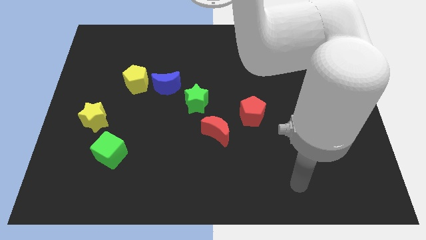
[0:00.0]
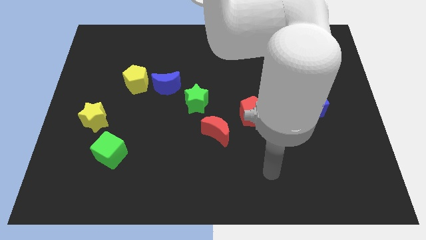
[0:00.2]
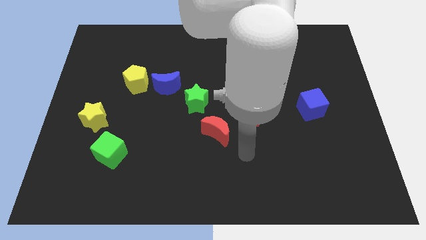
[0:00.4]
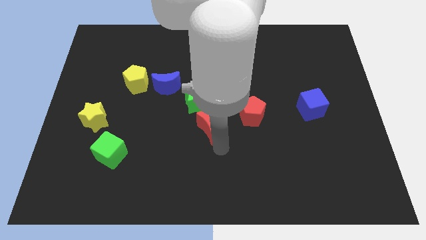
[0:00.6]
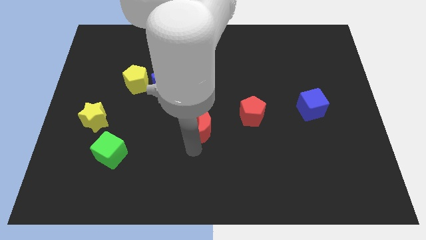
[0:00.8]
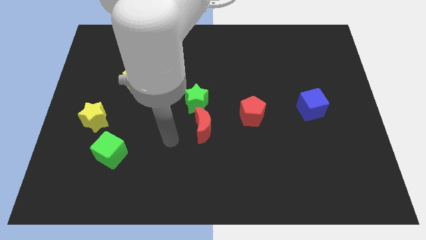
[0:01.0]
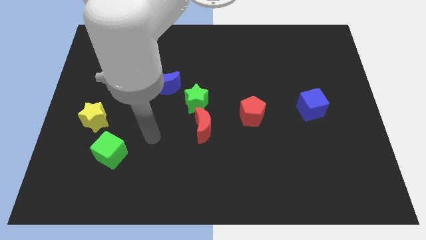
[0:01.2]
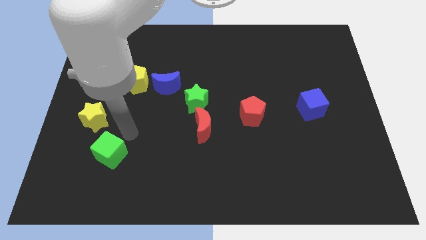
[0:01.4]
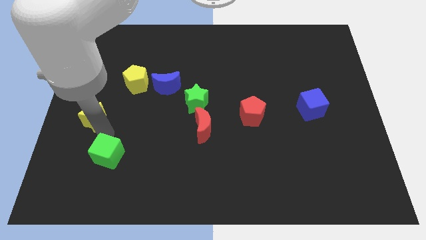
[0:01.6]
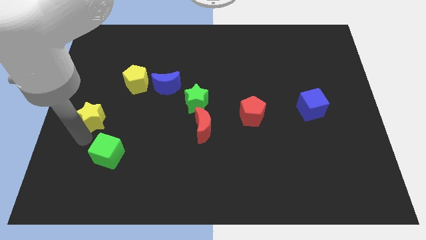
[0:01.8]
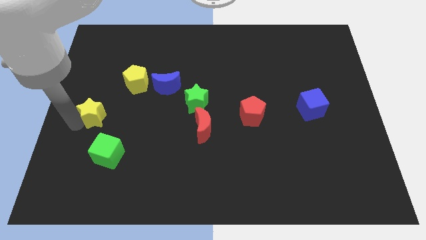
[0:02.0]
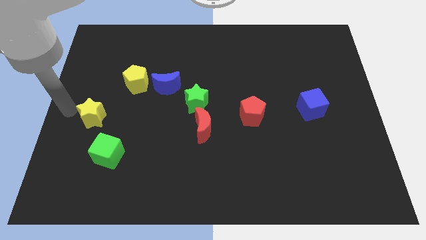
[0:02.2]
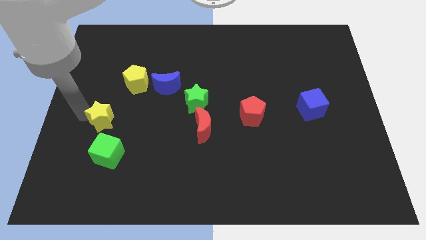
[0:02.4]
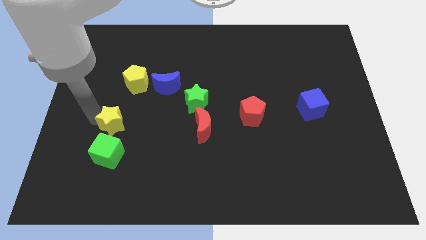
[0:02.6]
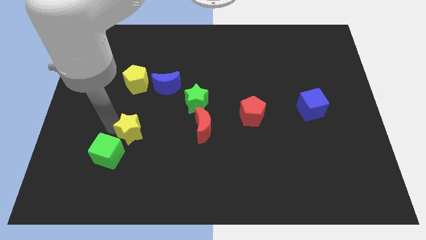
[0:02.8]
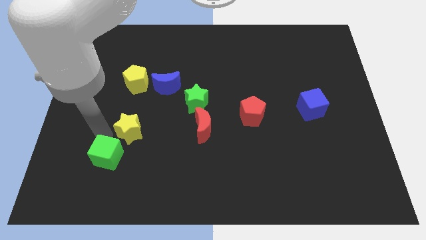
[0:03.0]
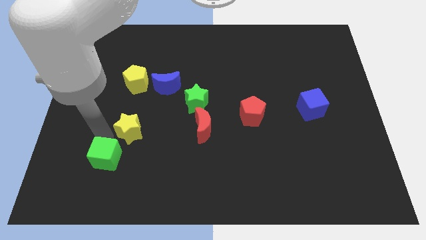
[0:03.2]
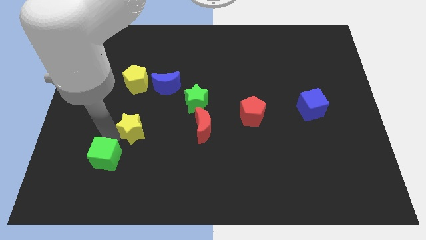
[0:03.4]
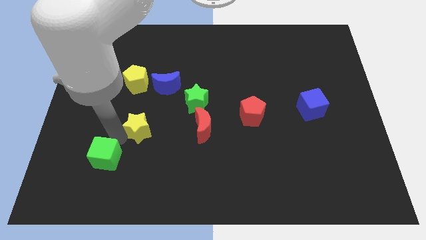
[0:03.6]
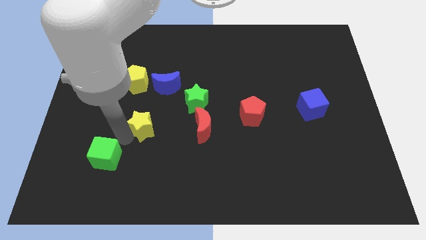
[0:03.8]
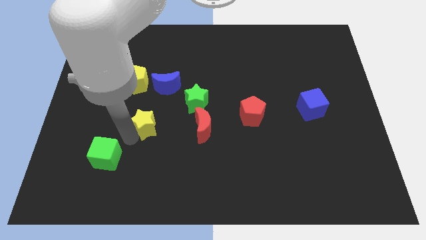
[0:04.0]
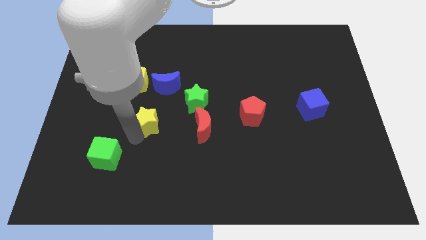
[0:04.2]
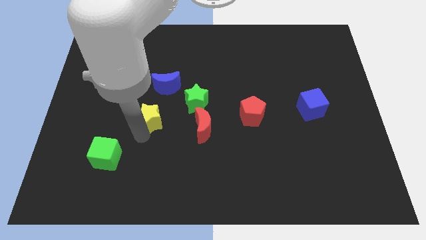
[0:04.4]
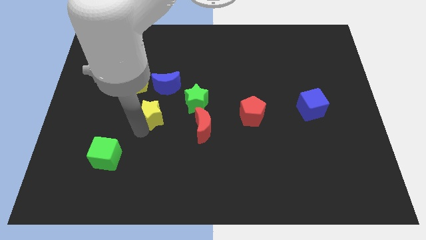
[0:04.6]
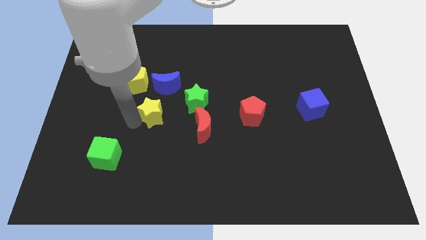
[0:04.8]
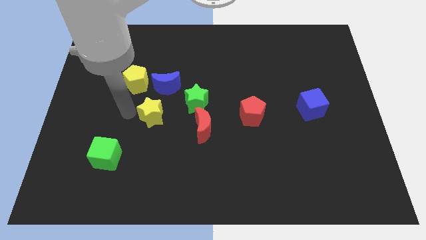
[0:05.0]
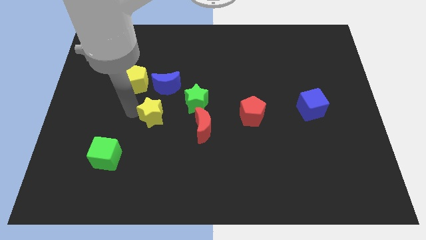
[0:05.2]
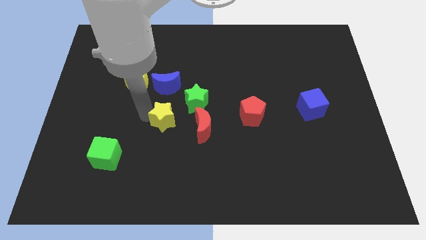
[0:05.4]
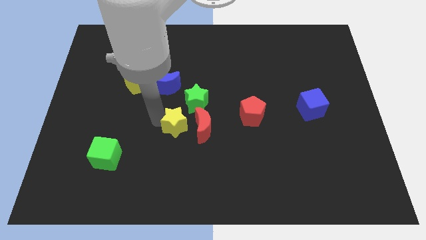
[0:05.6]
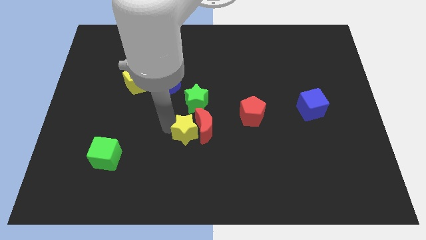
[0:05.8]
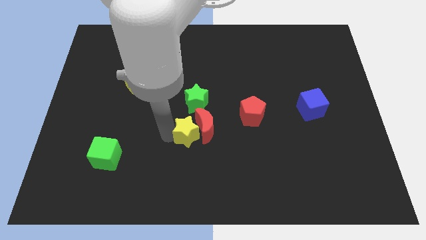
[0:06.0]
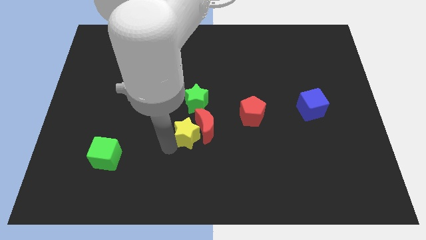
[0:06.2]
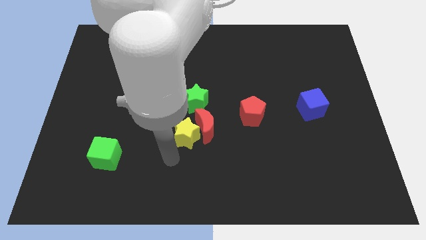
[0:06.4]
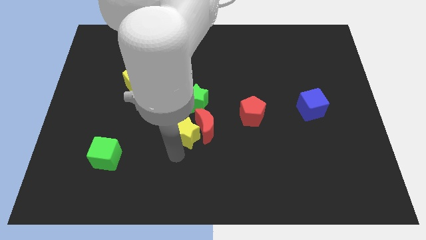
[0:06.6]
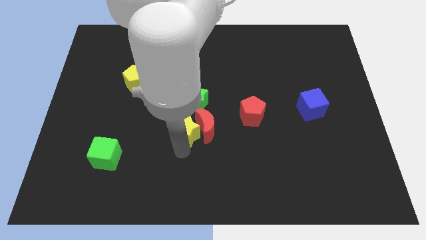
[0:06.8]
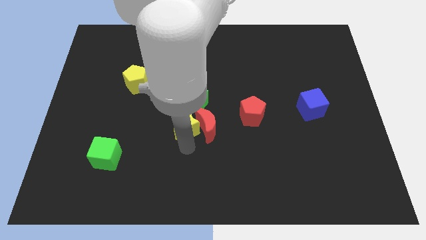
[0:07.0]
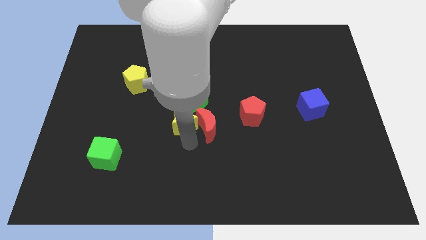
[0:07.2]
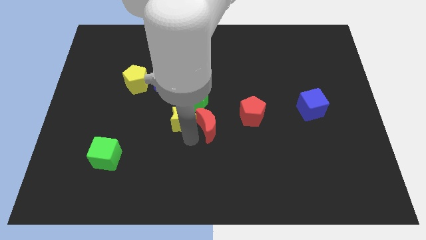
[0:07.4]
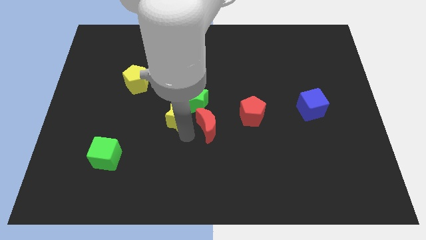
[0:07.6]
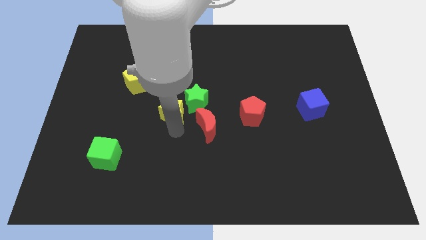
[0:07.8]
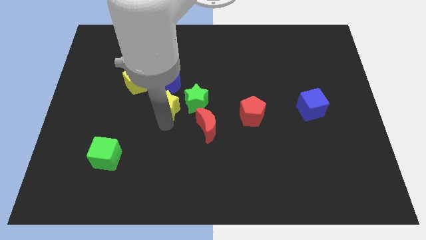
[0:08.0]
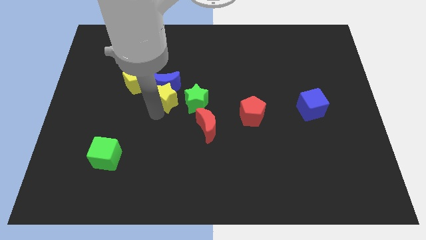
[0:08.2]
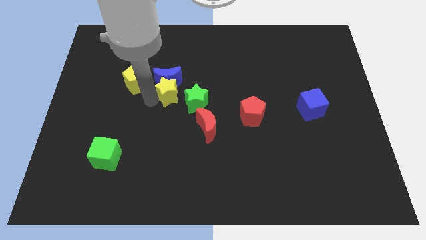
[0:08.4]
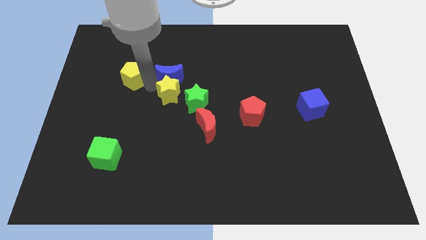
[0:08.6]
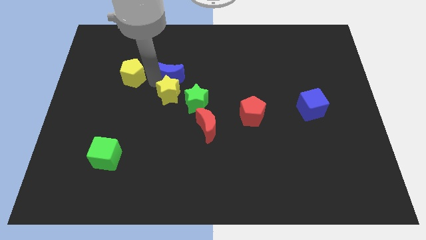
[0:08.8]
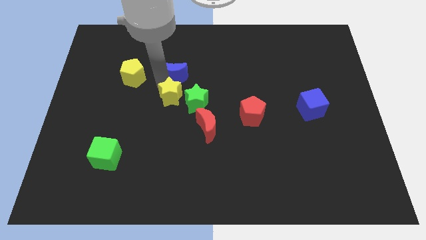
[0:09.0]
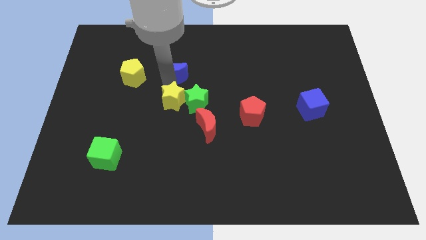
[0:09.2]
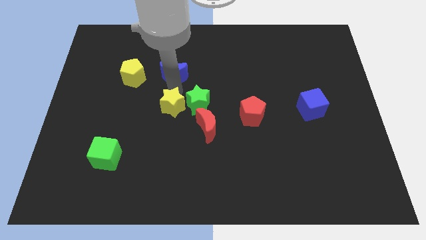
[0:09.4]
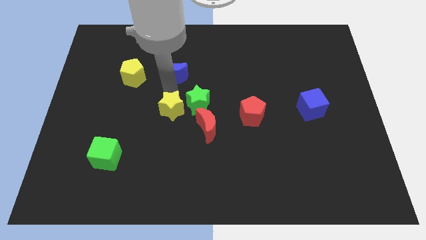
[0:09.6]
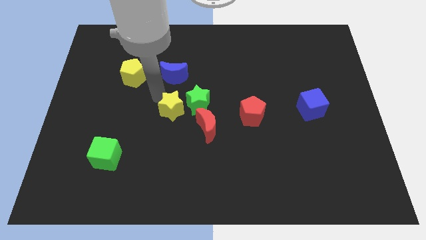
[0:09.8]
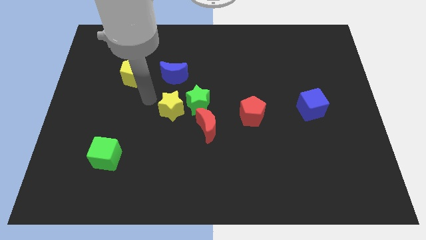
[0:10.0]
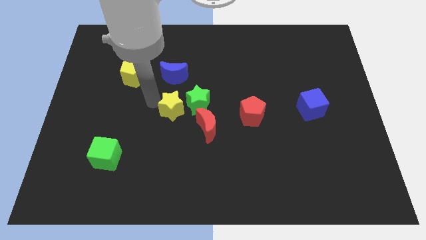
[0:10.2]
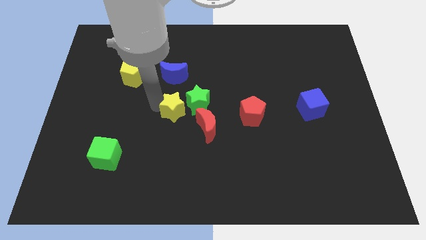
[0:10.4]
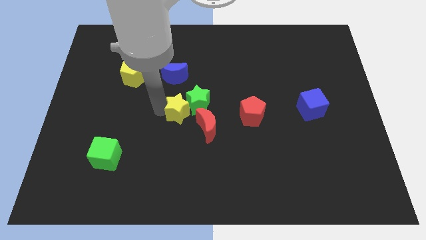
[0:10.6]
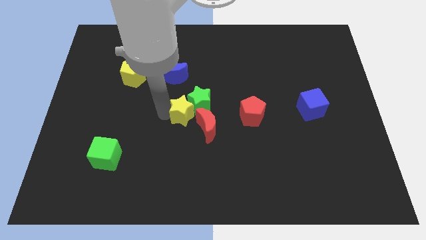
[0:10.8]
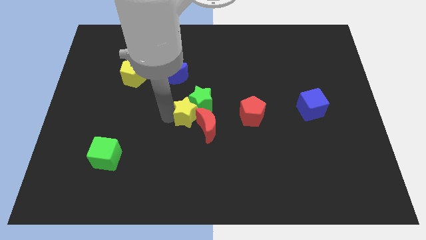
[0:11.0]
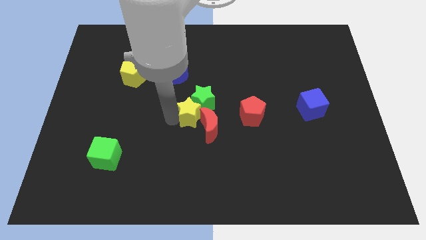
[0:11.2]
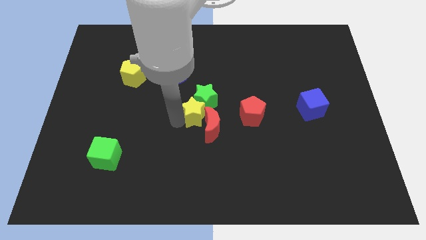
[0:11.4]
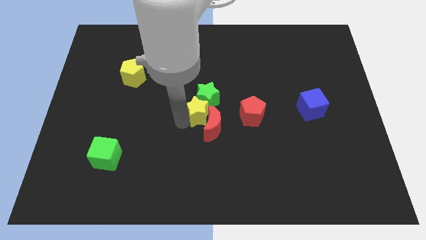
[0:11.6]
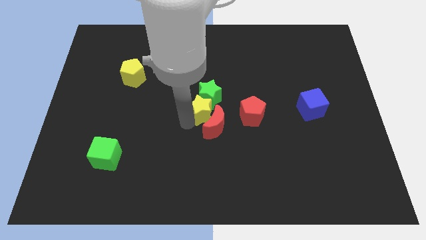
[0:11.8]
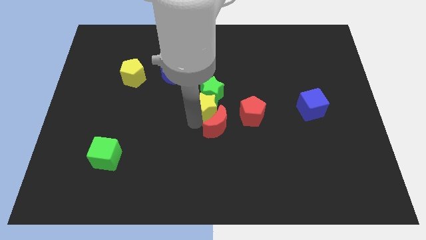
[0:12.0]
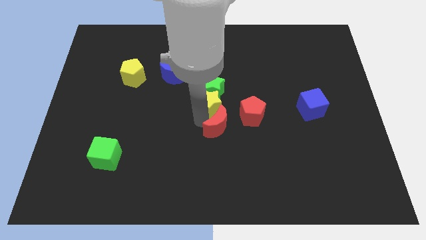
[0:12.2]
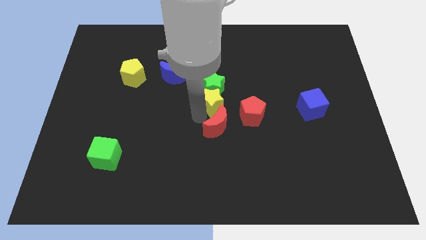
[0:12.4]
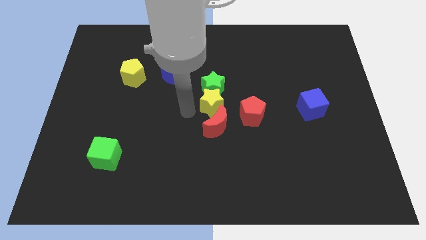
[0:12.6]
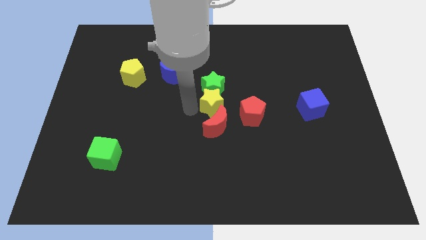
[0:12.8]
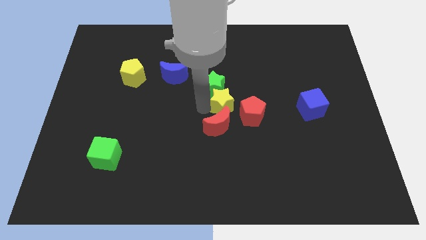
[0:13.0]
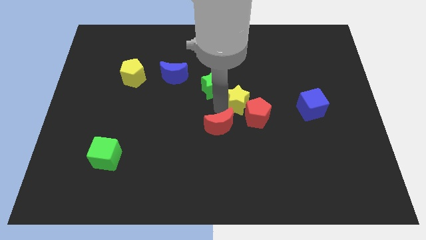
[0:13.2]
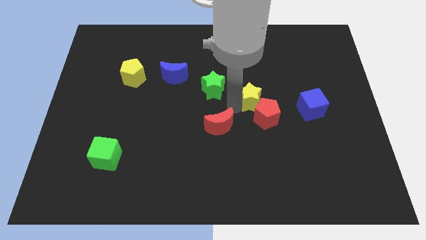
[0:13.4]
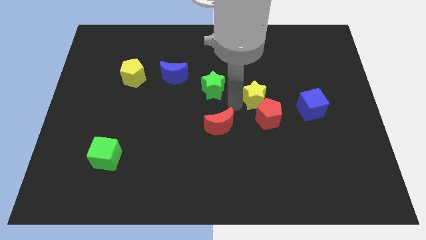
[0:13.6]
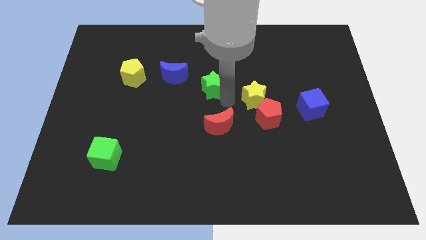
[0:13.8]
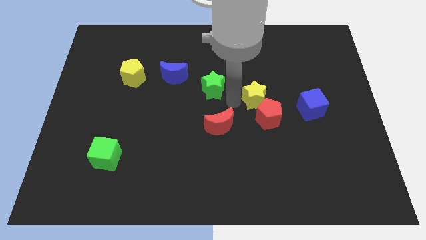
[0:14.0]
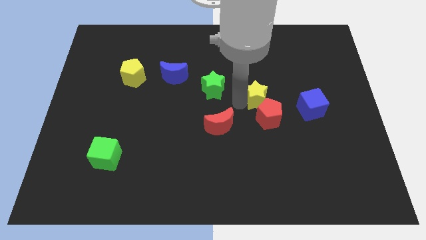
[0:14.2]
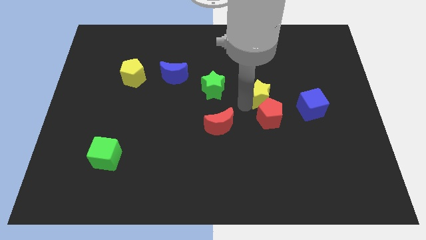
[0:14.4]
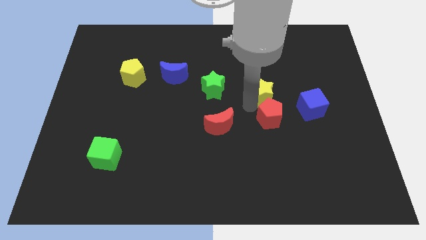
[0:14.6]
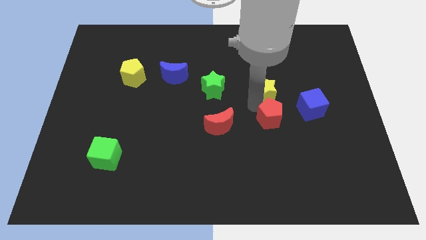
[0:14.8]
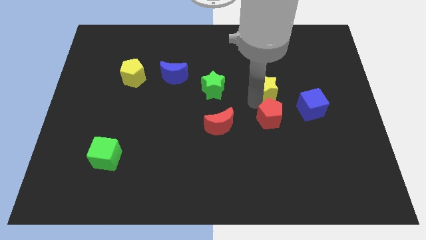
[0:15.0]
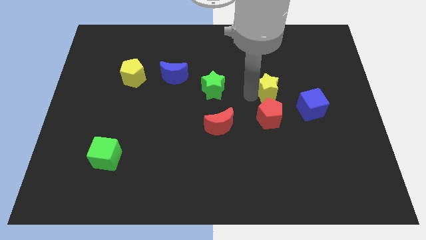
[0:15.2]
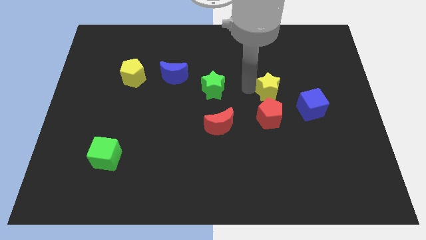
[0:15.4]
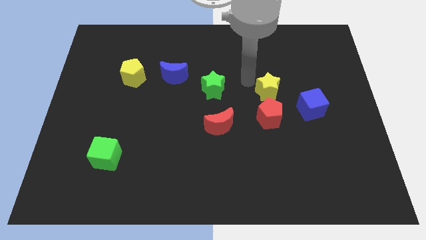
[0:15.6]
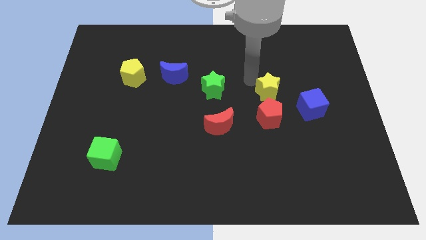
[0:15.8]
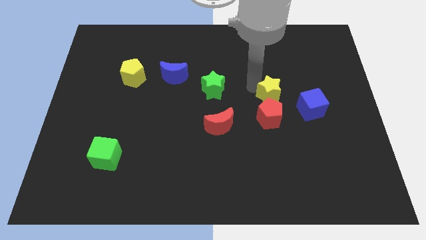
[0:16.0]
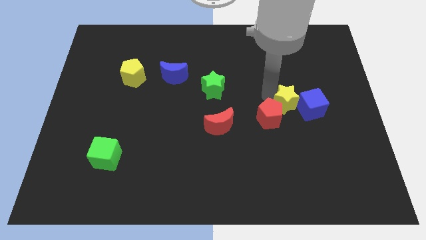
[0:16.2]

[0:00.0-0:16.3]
move the yellow star close to the blue cube
